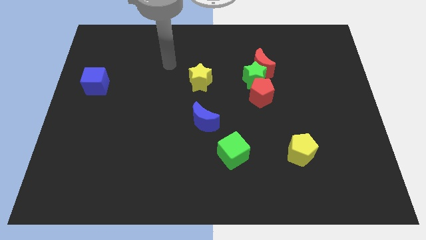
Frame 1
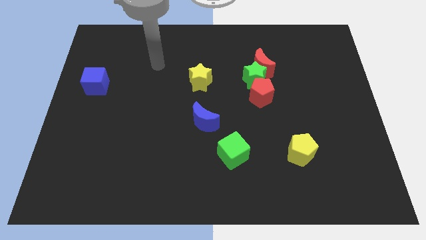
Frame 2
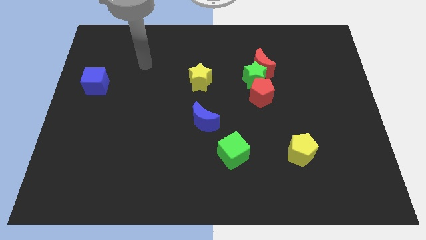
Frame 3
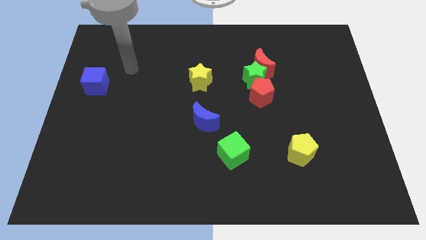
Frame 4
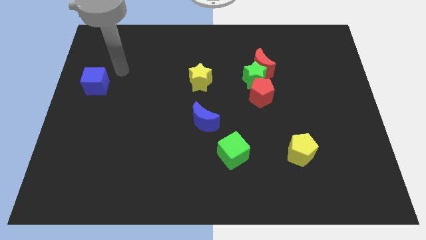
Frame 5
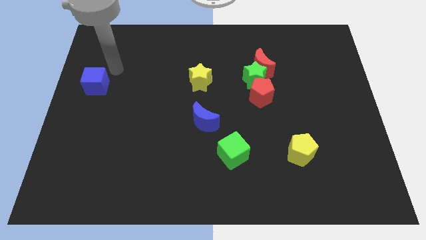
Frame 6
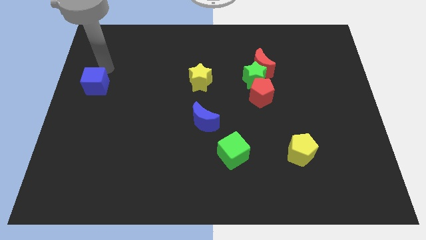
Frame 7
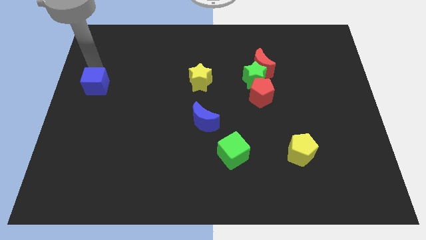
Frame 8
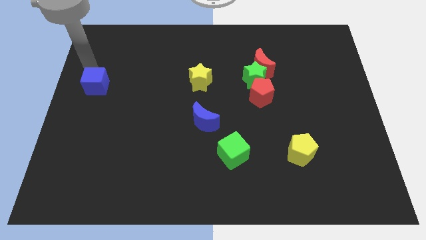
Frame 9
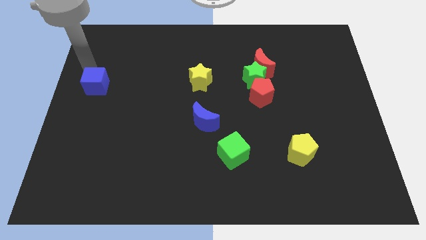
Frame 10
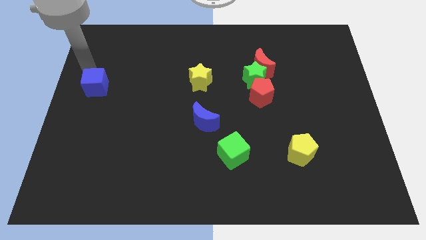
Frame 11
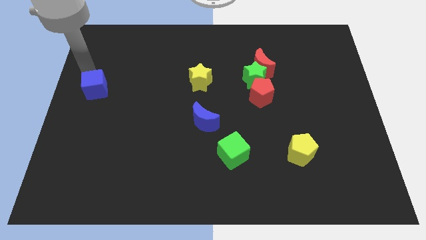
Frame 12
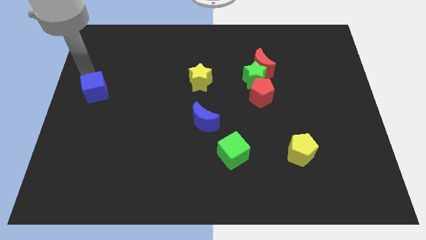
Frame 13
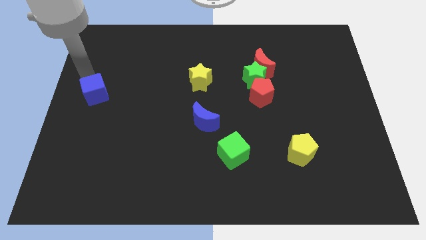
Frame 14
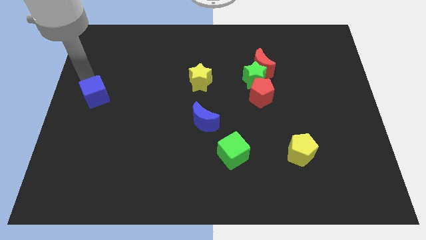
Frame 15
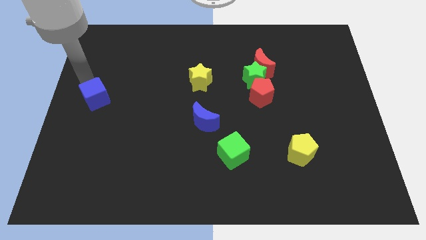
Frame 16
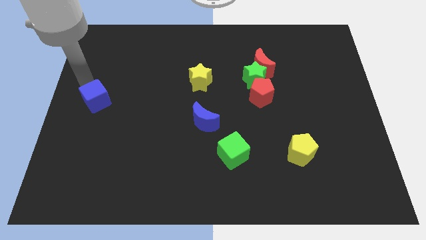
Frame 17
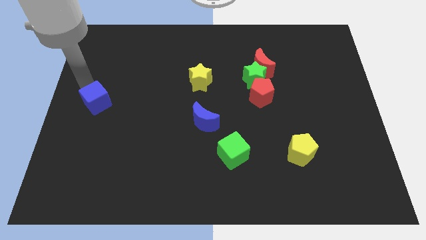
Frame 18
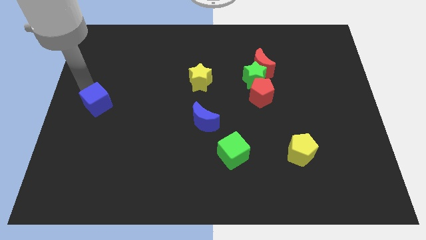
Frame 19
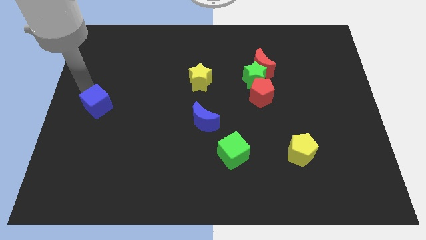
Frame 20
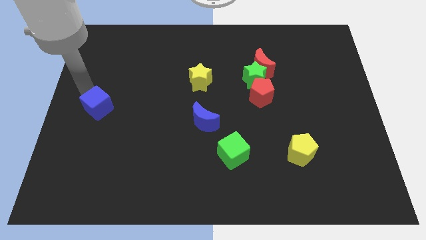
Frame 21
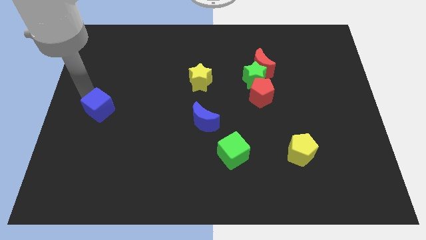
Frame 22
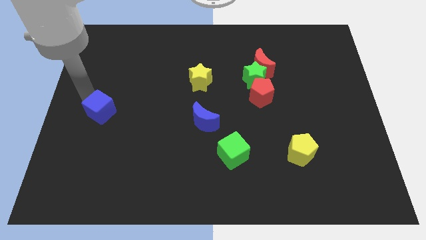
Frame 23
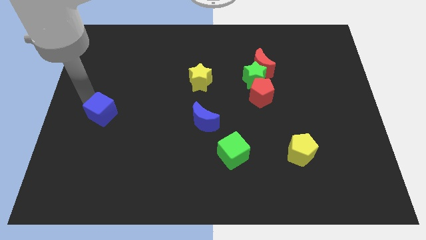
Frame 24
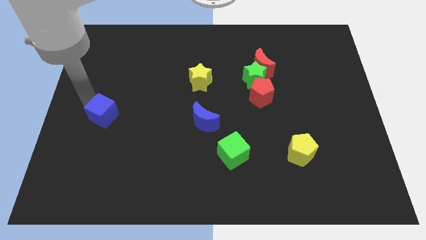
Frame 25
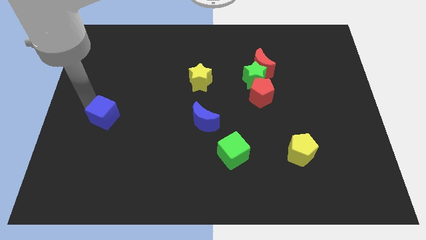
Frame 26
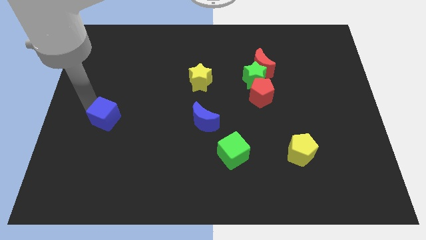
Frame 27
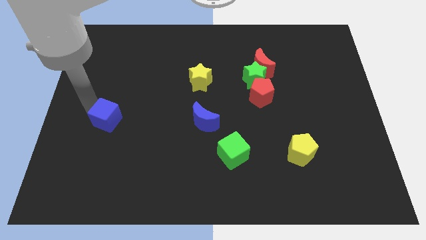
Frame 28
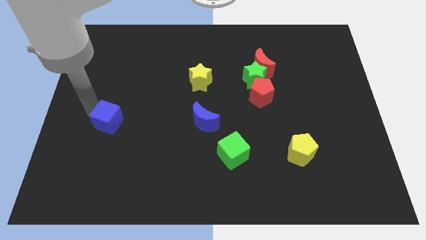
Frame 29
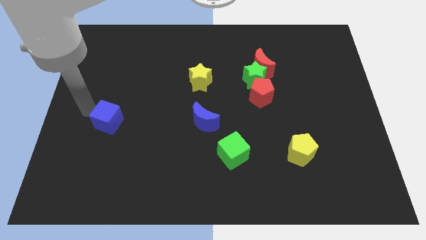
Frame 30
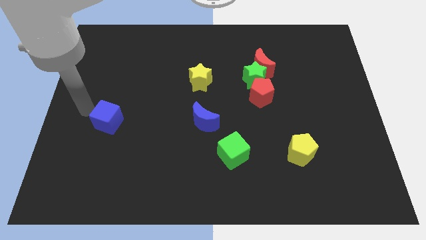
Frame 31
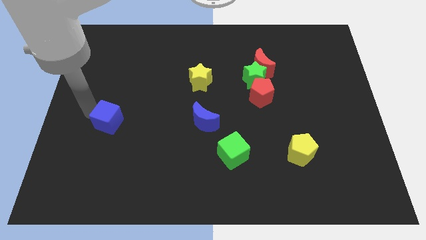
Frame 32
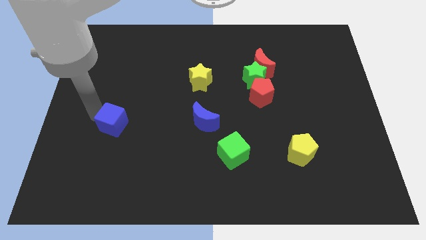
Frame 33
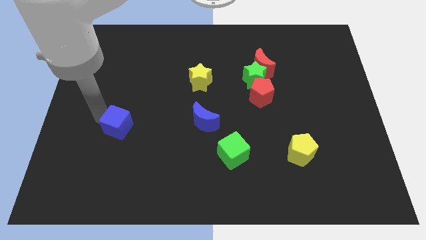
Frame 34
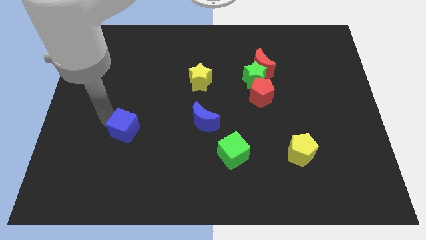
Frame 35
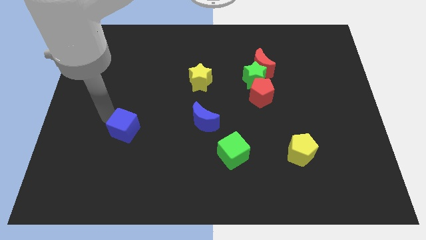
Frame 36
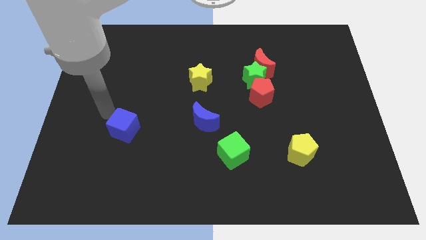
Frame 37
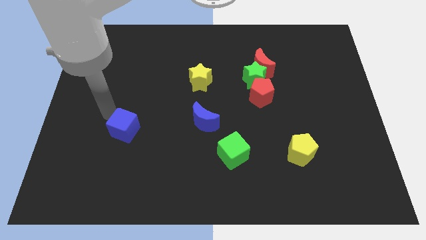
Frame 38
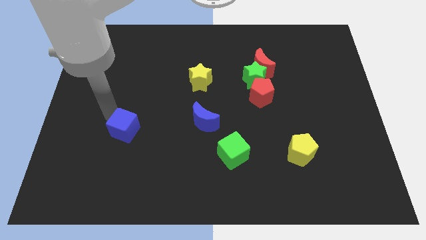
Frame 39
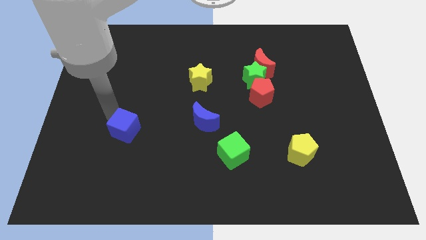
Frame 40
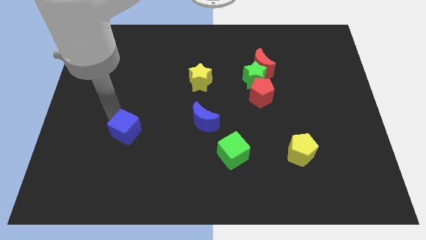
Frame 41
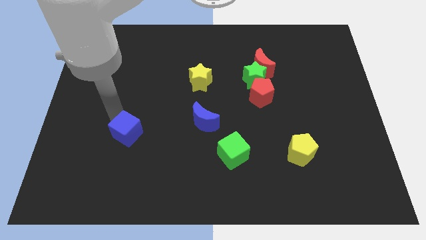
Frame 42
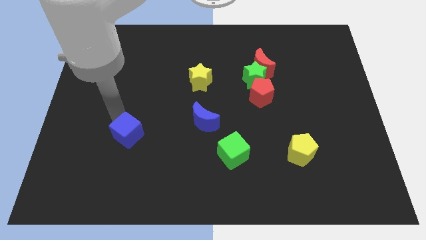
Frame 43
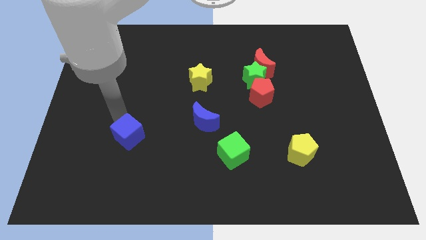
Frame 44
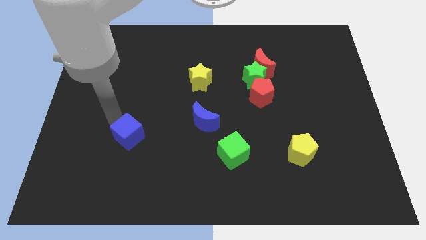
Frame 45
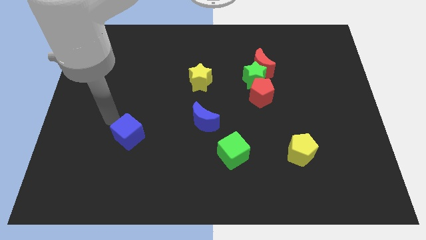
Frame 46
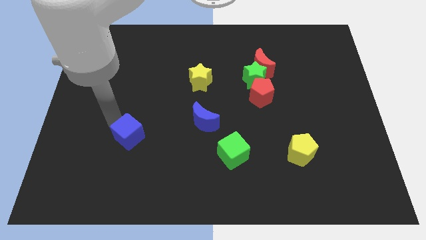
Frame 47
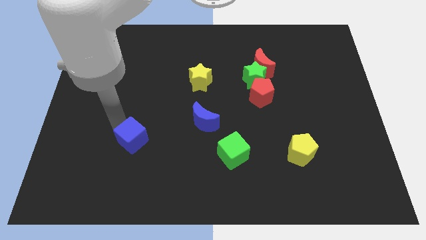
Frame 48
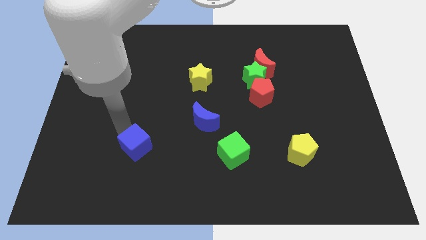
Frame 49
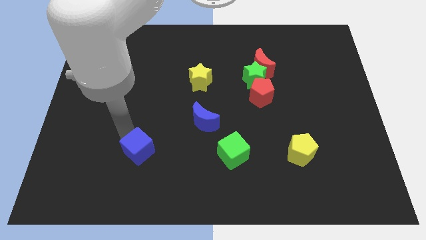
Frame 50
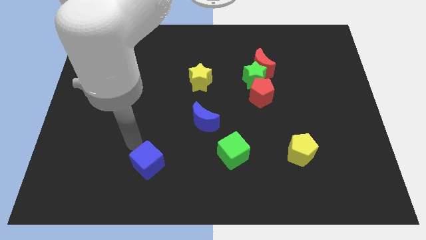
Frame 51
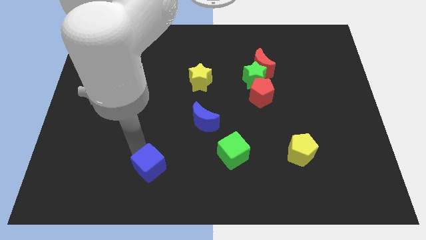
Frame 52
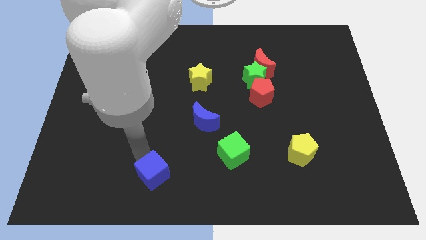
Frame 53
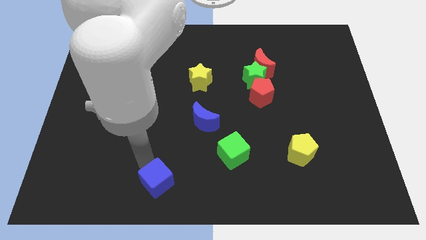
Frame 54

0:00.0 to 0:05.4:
move the blue cube to the bottom side

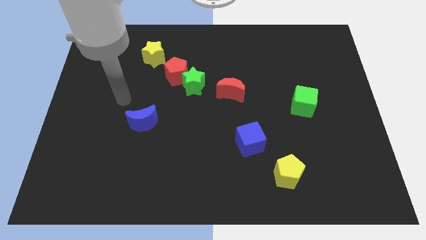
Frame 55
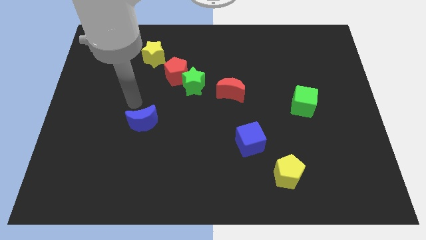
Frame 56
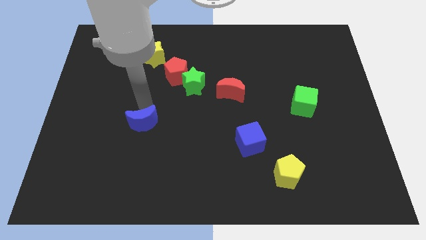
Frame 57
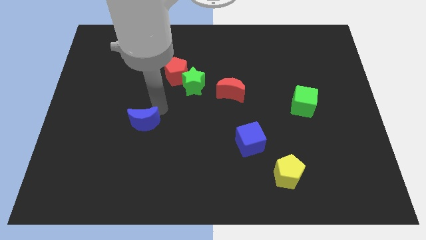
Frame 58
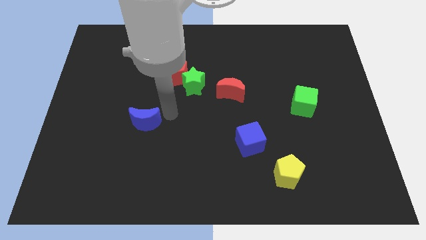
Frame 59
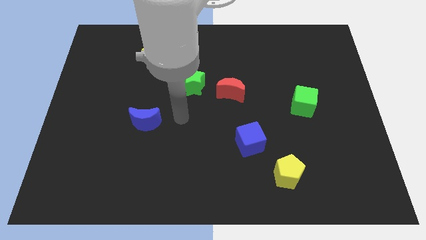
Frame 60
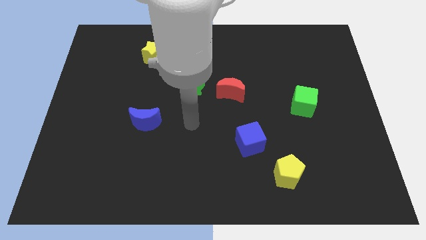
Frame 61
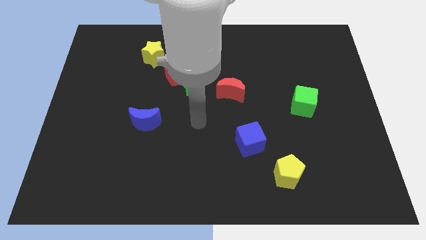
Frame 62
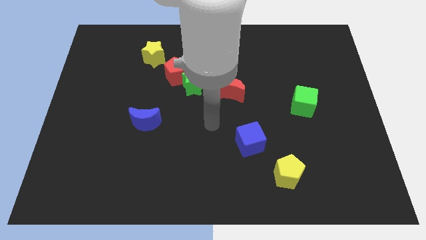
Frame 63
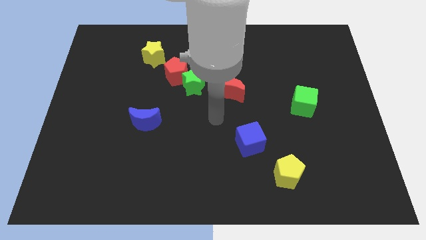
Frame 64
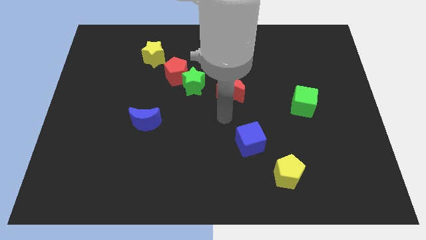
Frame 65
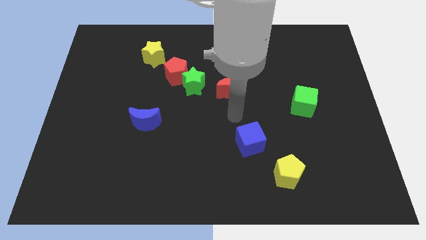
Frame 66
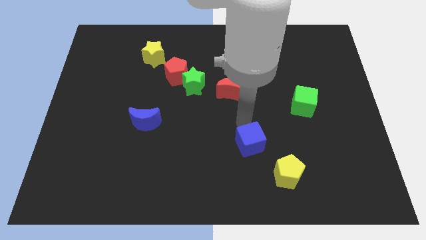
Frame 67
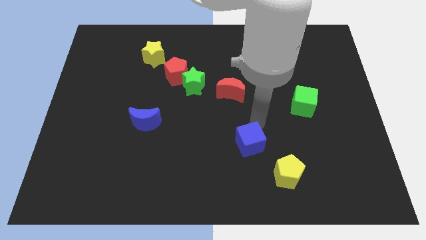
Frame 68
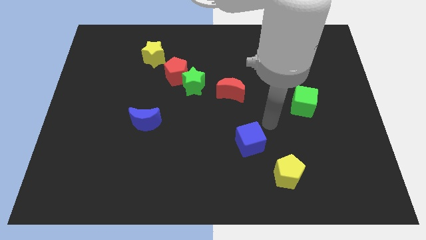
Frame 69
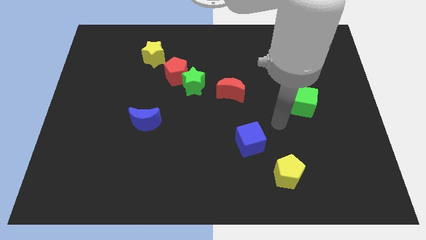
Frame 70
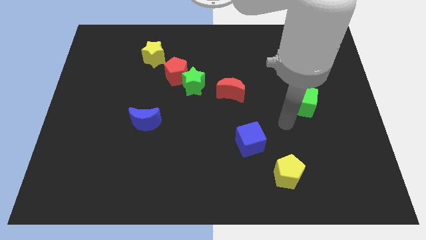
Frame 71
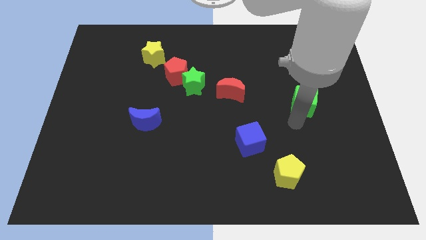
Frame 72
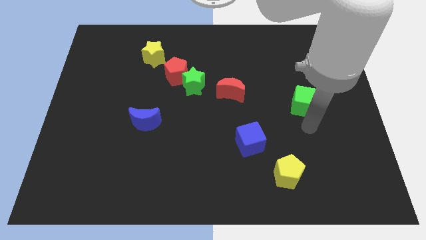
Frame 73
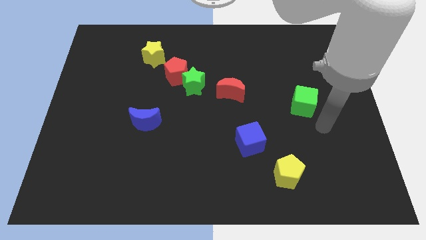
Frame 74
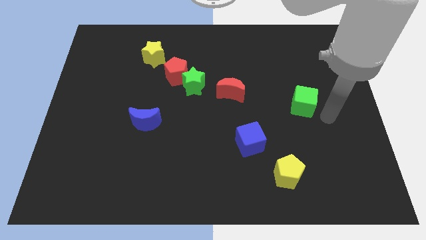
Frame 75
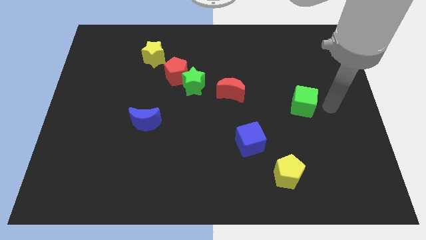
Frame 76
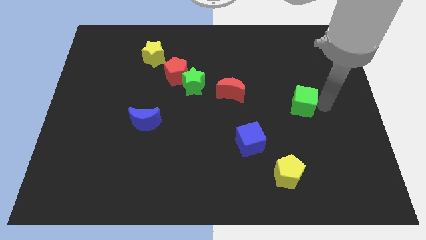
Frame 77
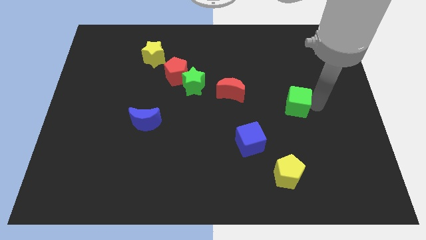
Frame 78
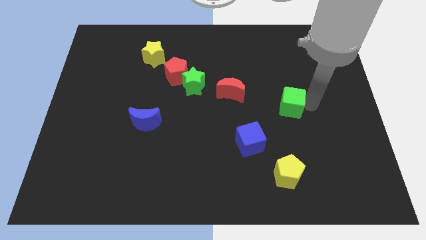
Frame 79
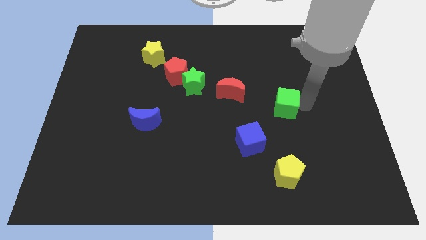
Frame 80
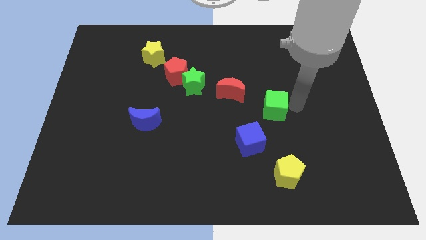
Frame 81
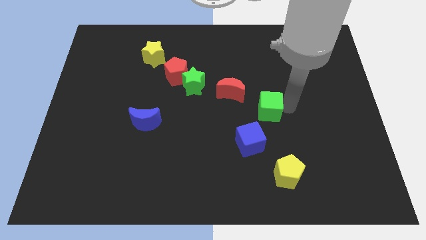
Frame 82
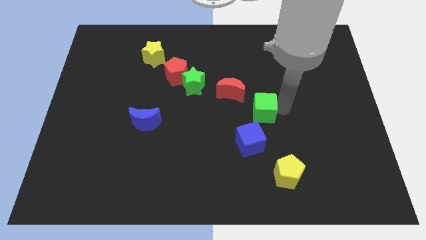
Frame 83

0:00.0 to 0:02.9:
move the green cube to the middle
